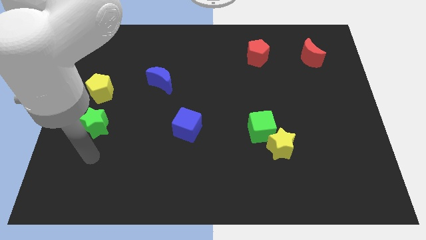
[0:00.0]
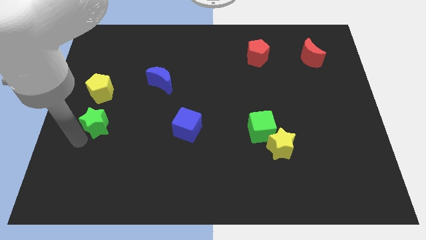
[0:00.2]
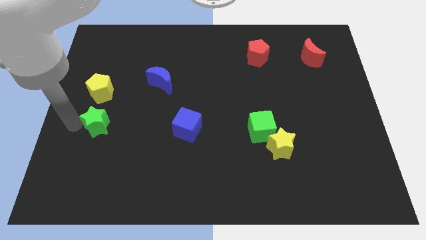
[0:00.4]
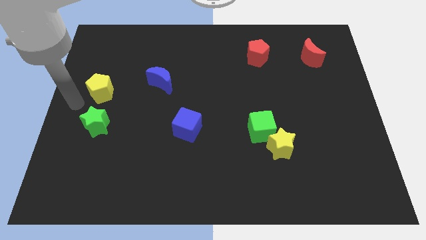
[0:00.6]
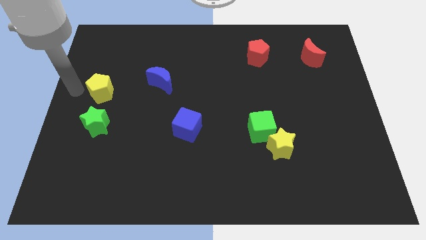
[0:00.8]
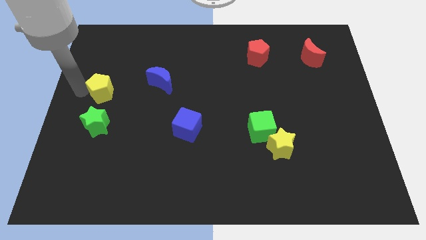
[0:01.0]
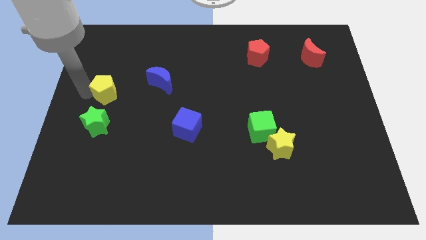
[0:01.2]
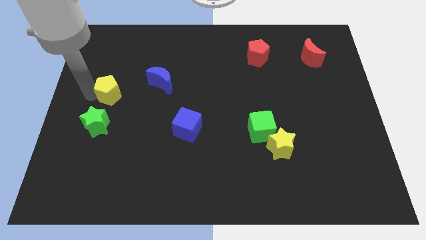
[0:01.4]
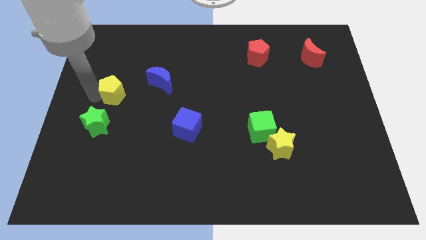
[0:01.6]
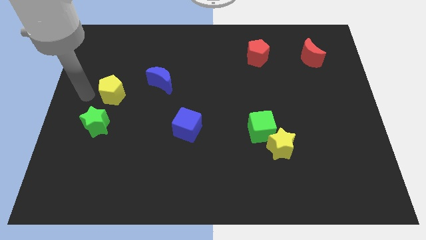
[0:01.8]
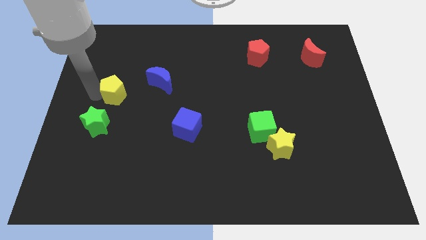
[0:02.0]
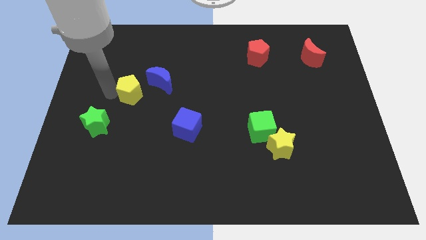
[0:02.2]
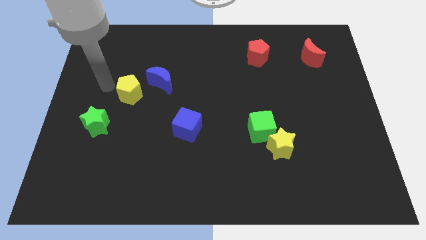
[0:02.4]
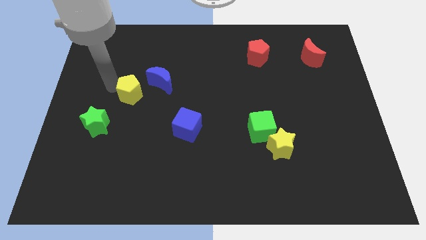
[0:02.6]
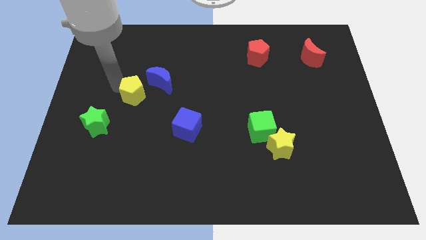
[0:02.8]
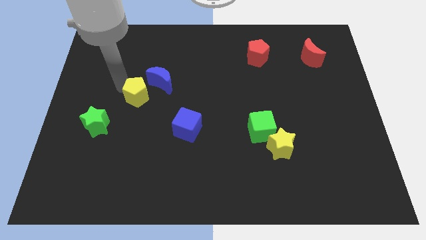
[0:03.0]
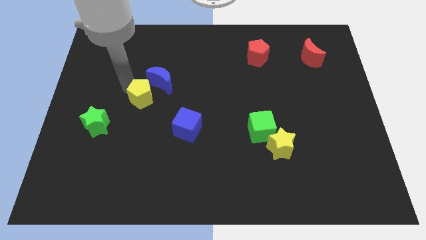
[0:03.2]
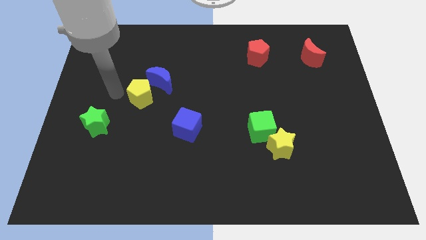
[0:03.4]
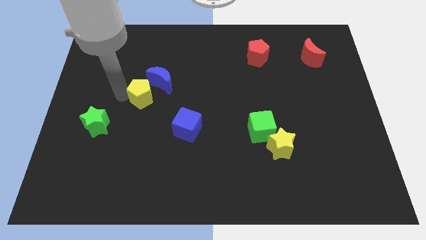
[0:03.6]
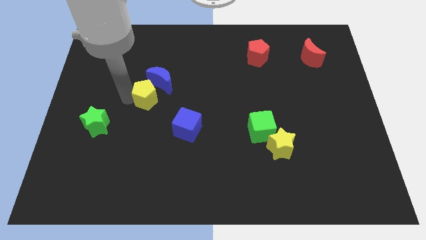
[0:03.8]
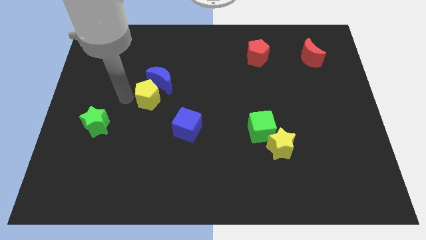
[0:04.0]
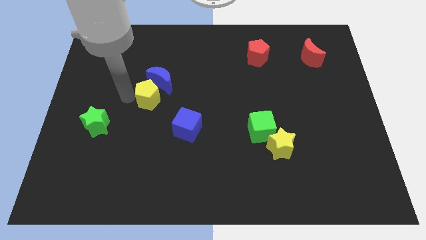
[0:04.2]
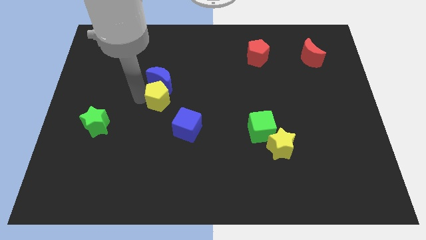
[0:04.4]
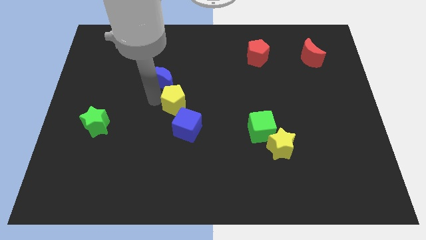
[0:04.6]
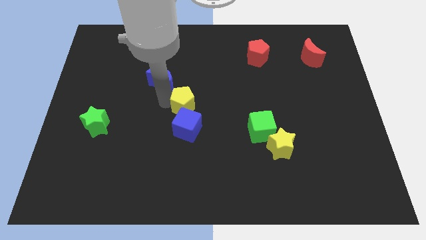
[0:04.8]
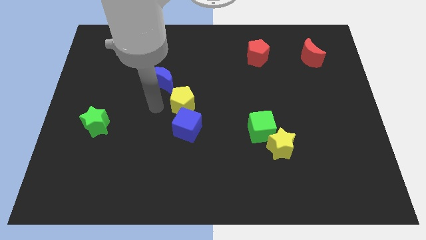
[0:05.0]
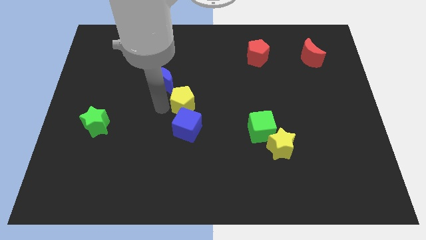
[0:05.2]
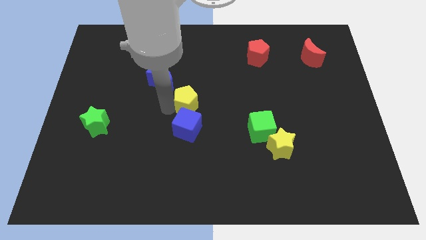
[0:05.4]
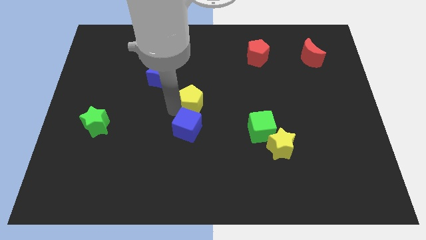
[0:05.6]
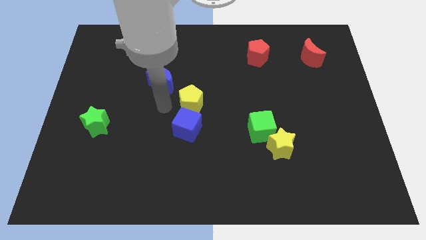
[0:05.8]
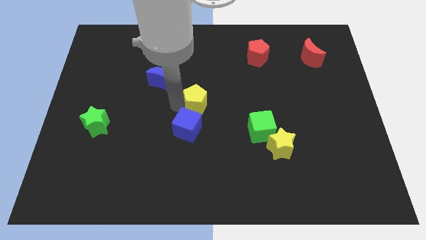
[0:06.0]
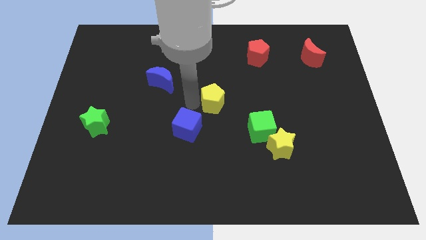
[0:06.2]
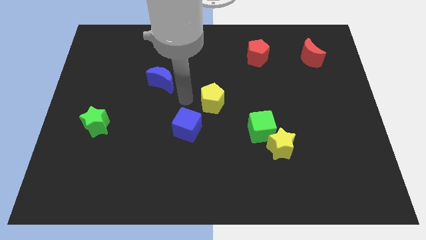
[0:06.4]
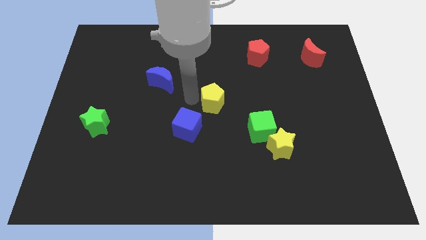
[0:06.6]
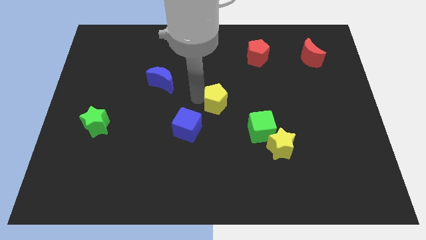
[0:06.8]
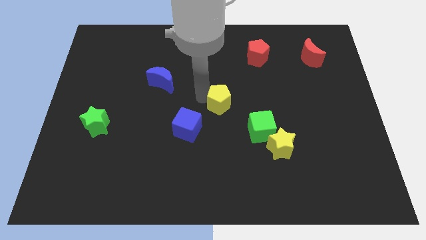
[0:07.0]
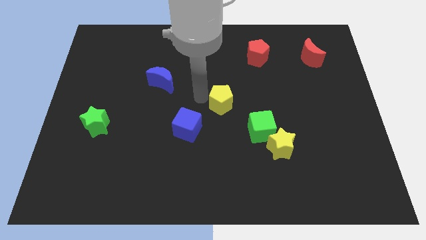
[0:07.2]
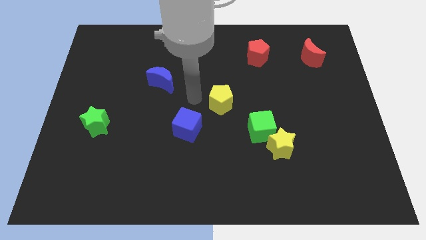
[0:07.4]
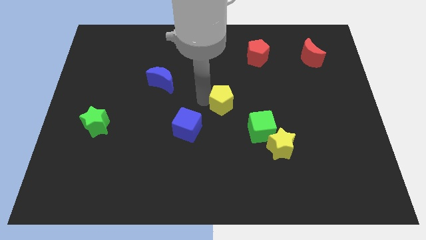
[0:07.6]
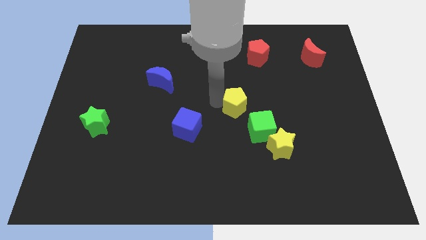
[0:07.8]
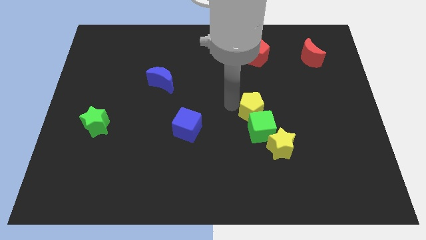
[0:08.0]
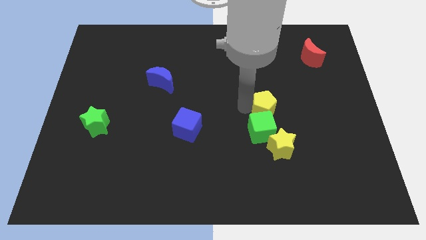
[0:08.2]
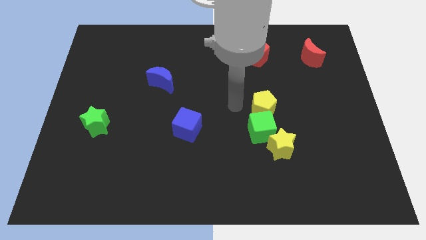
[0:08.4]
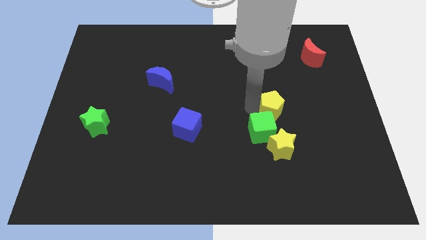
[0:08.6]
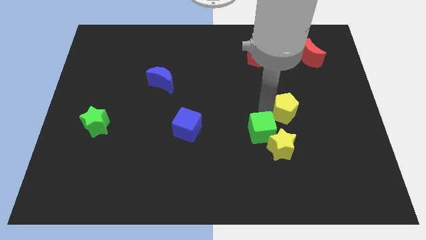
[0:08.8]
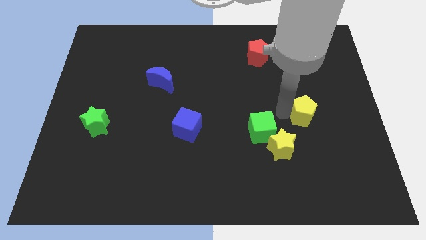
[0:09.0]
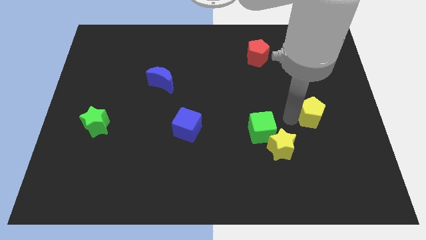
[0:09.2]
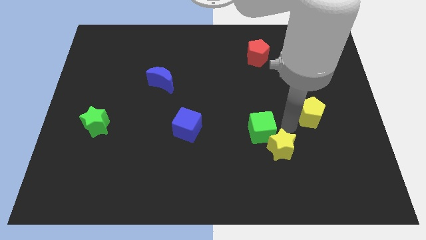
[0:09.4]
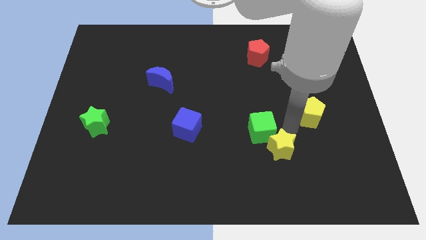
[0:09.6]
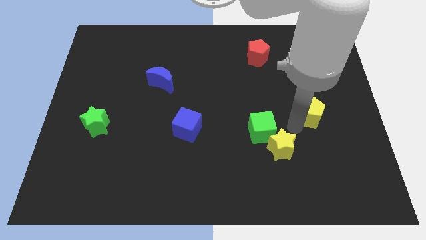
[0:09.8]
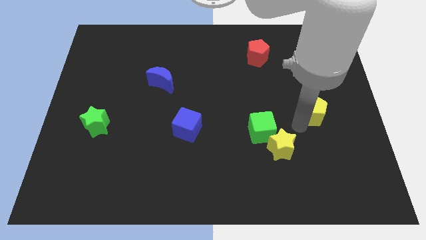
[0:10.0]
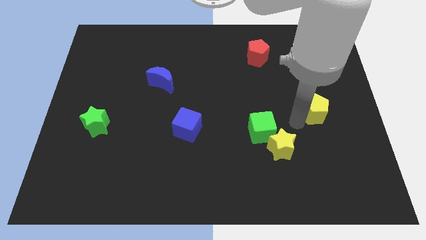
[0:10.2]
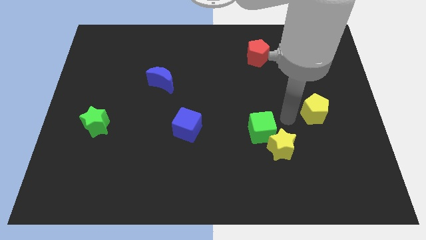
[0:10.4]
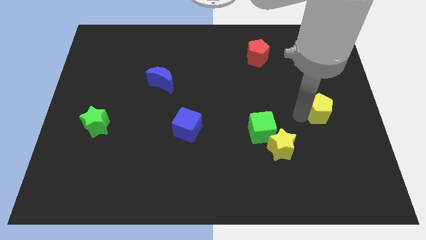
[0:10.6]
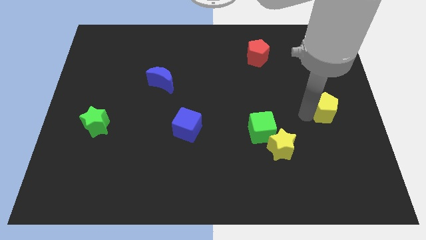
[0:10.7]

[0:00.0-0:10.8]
slide the yellow pentagon to the right side

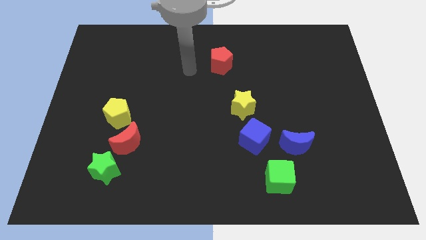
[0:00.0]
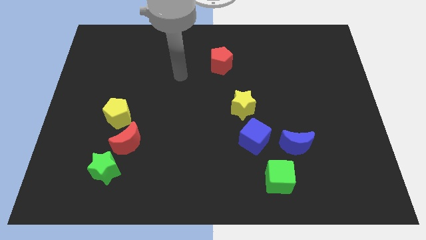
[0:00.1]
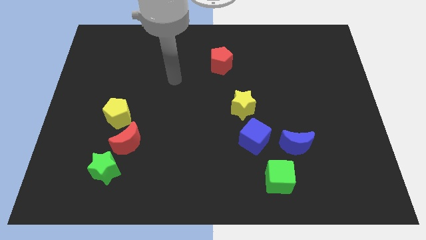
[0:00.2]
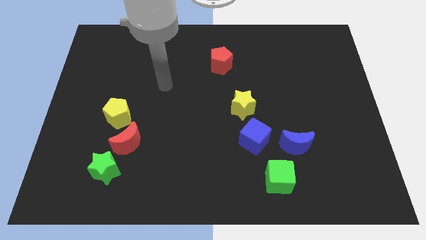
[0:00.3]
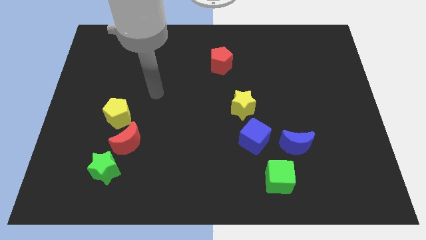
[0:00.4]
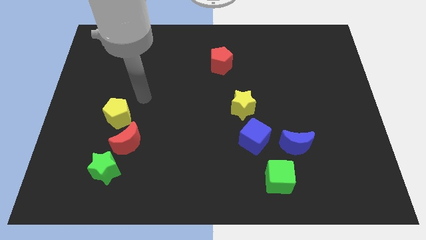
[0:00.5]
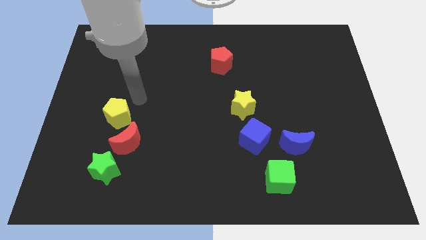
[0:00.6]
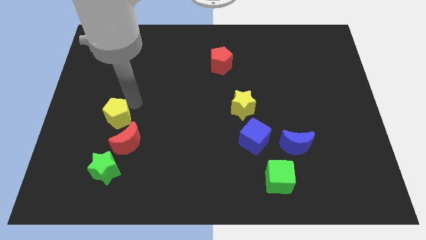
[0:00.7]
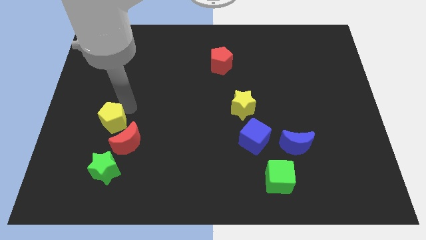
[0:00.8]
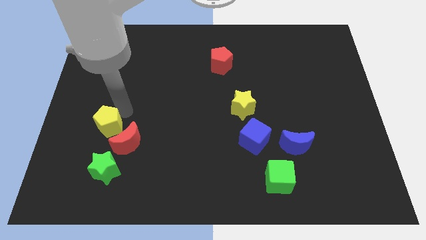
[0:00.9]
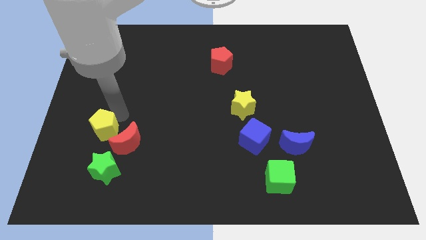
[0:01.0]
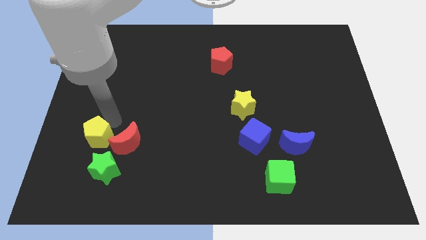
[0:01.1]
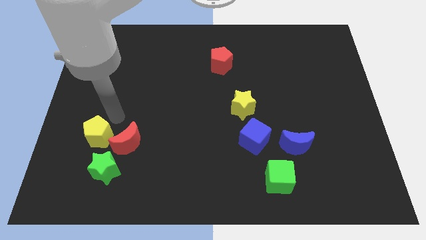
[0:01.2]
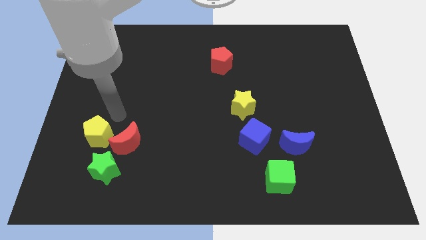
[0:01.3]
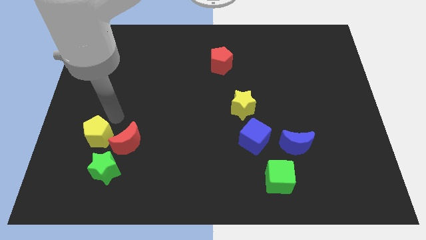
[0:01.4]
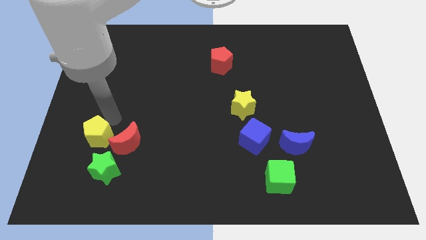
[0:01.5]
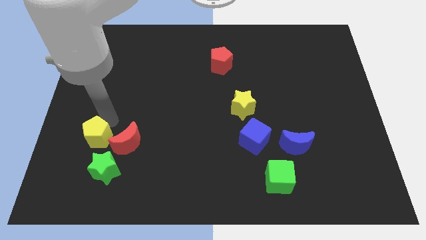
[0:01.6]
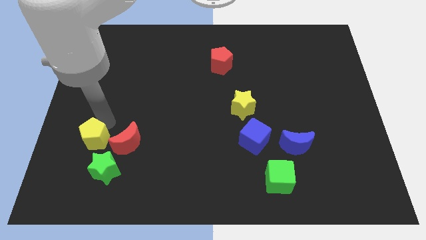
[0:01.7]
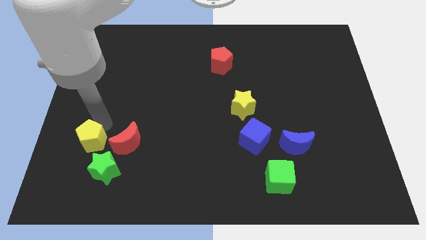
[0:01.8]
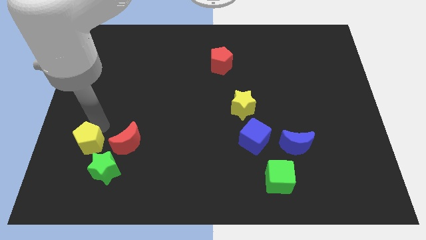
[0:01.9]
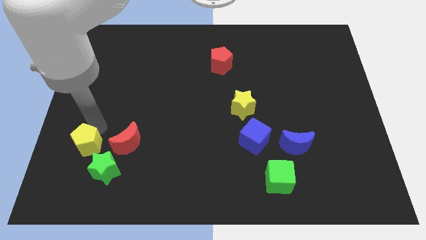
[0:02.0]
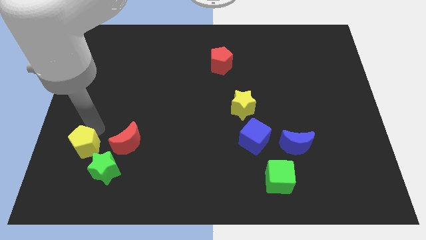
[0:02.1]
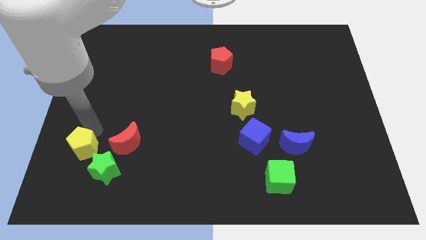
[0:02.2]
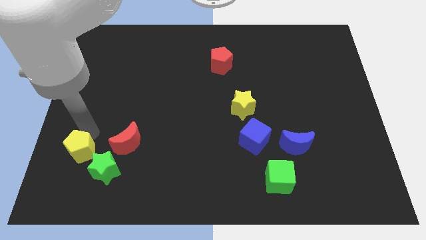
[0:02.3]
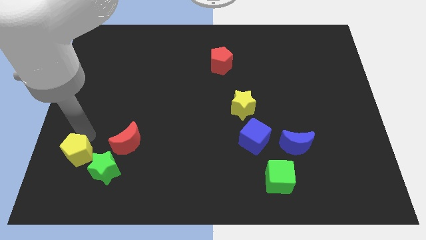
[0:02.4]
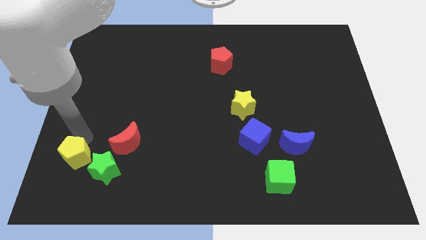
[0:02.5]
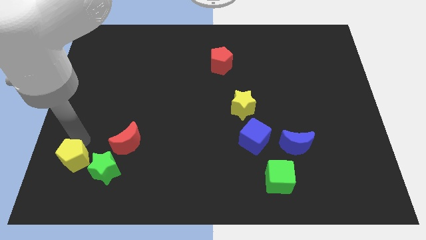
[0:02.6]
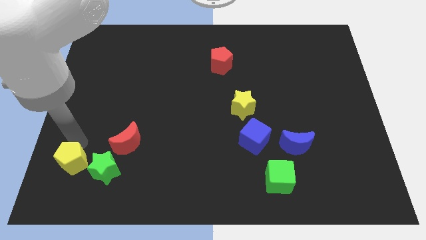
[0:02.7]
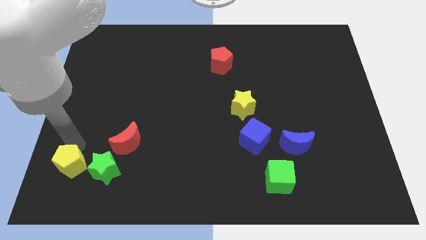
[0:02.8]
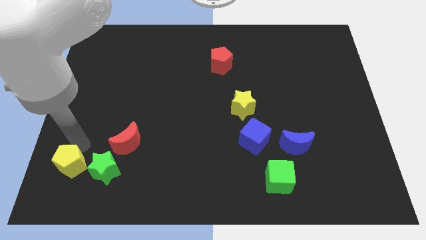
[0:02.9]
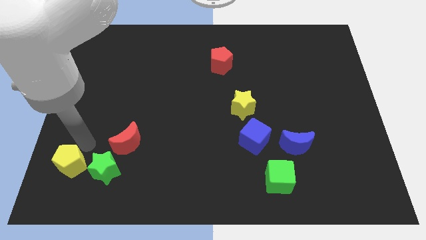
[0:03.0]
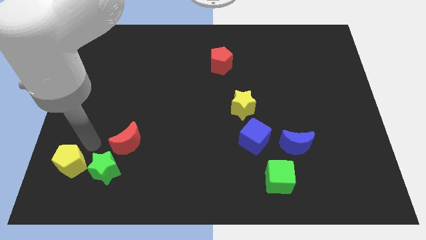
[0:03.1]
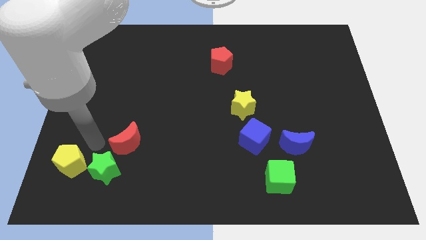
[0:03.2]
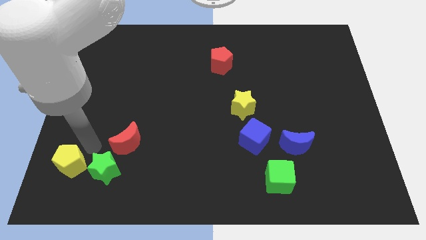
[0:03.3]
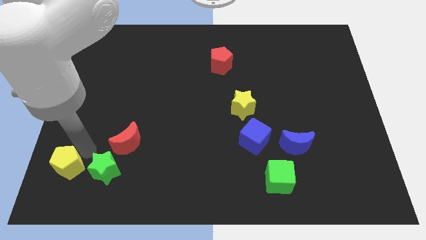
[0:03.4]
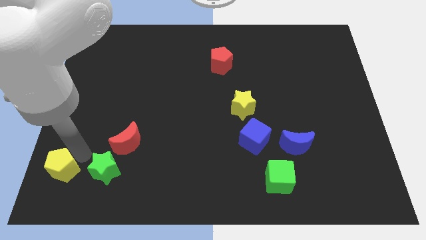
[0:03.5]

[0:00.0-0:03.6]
push the yellow pentagon to the bottom left
